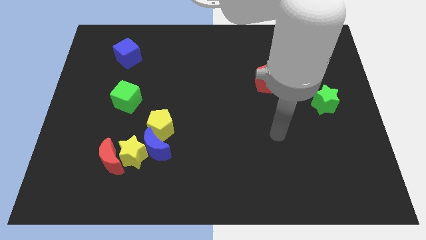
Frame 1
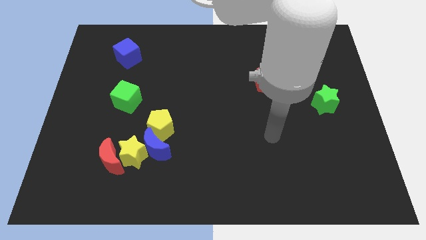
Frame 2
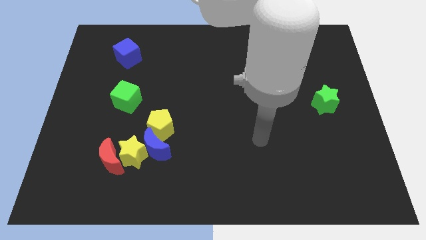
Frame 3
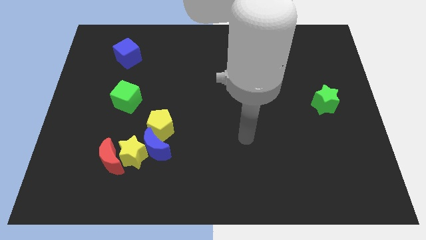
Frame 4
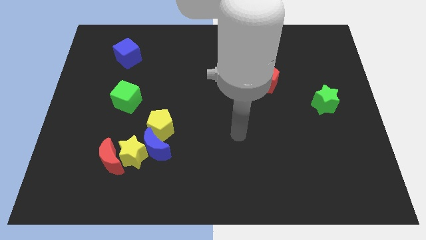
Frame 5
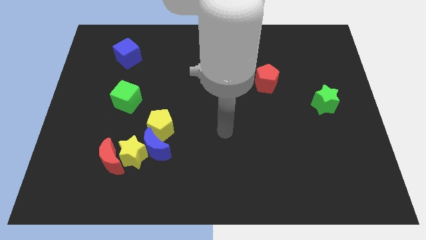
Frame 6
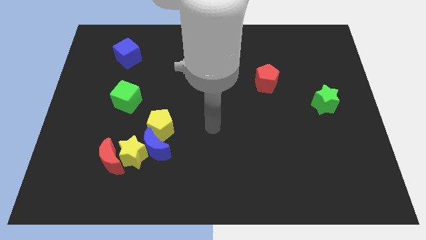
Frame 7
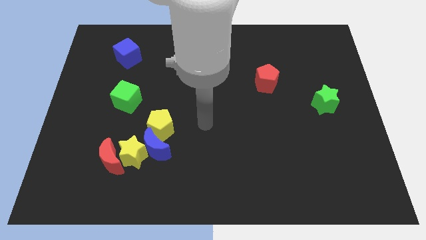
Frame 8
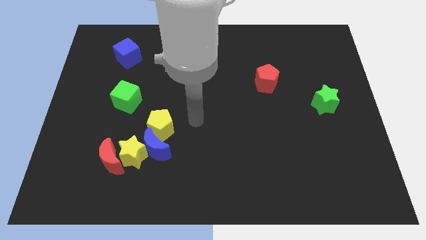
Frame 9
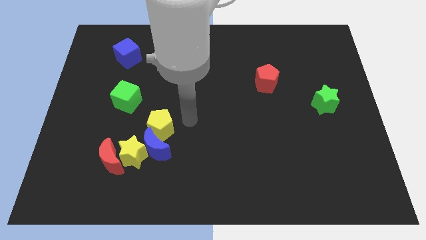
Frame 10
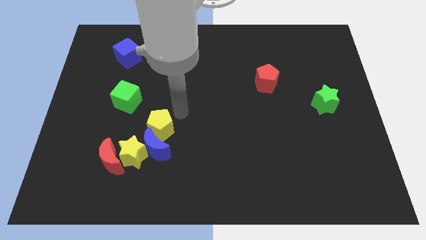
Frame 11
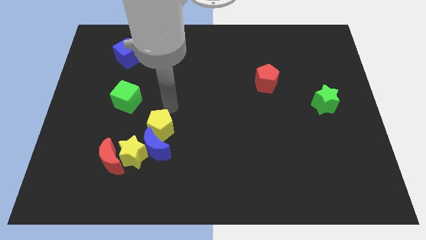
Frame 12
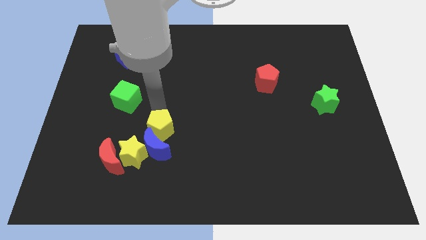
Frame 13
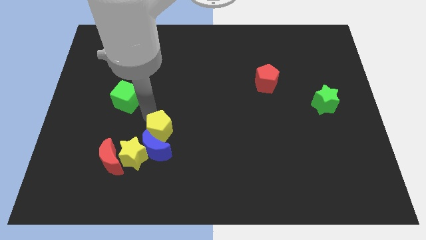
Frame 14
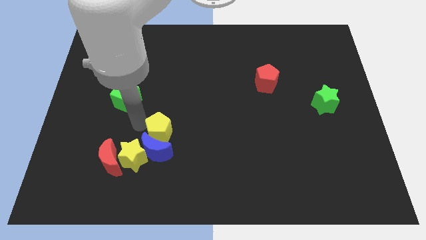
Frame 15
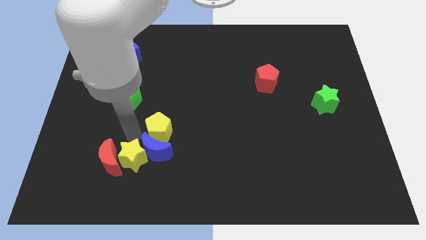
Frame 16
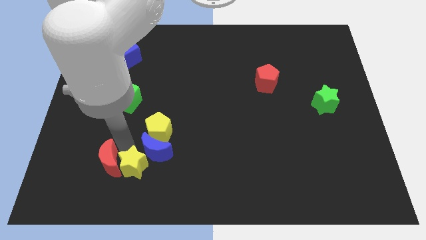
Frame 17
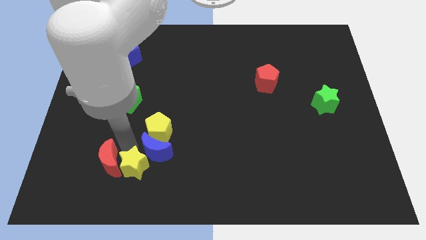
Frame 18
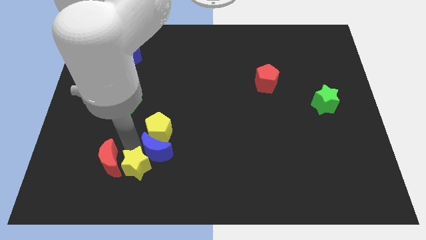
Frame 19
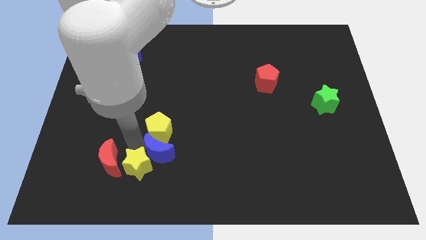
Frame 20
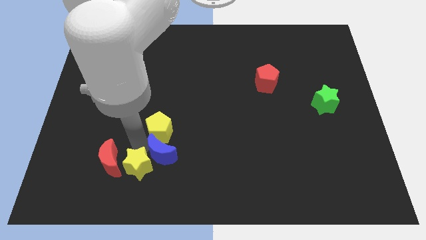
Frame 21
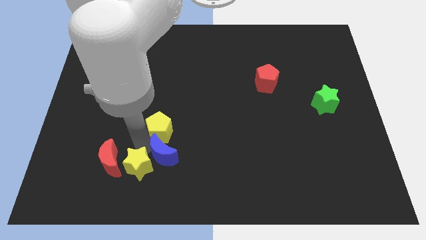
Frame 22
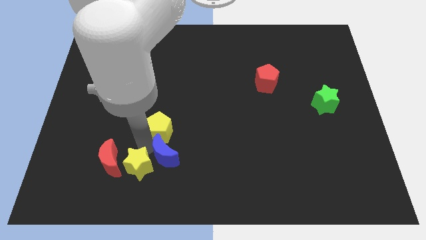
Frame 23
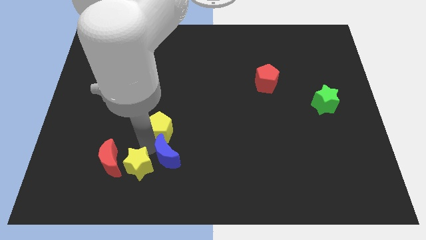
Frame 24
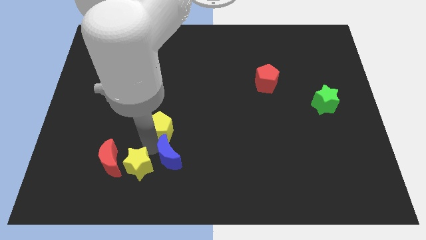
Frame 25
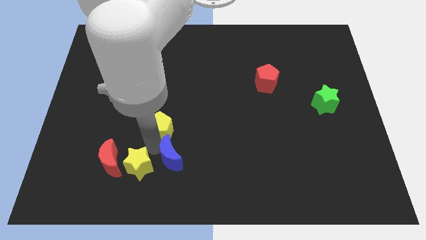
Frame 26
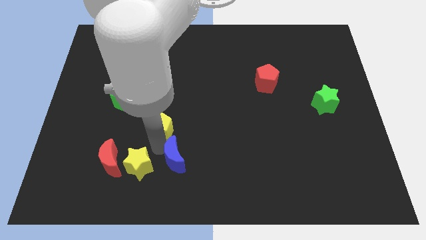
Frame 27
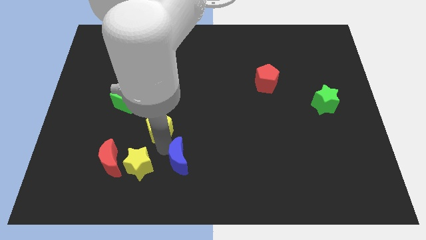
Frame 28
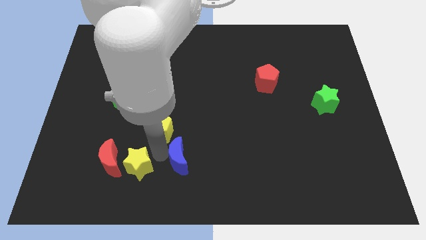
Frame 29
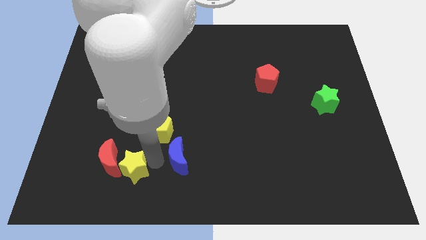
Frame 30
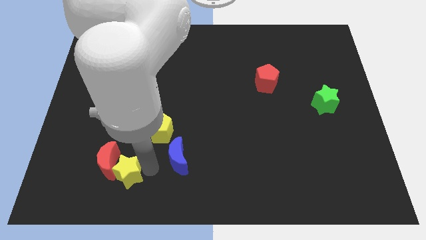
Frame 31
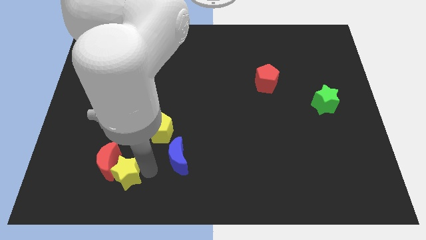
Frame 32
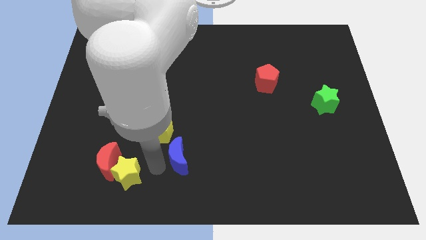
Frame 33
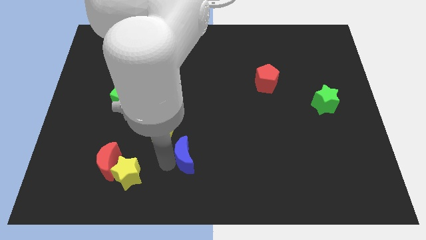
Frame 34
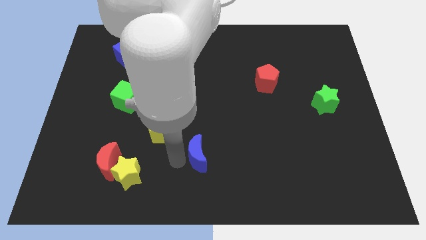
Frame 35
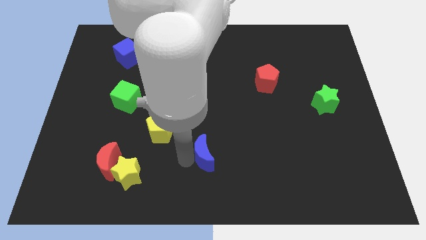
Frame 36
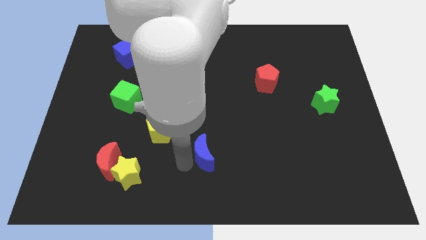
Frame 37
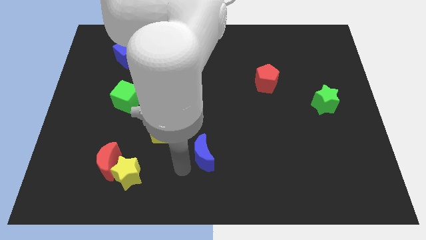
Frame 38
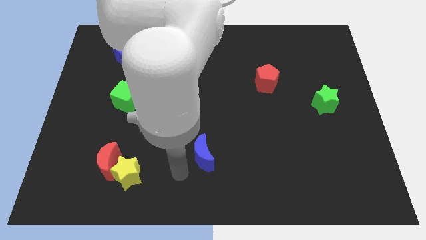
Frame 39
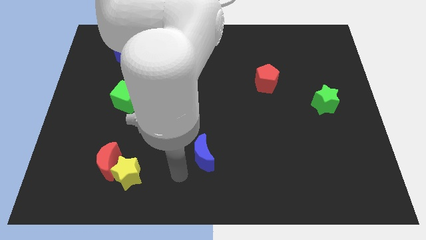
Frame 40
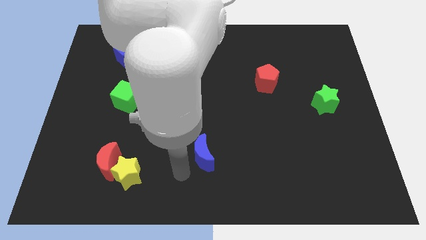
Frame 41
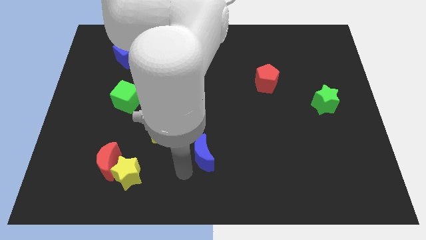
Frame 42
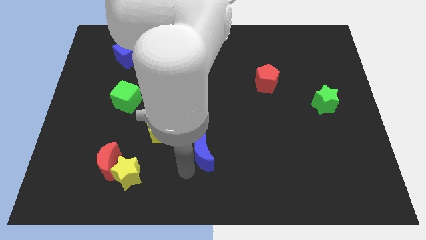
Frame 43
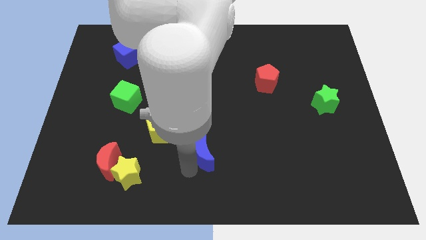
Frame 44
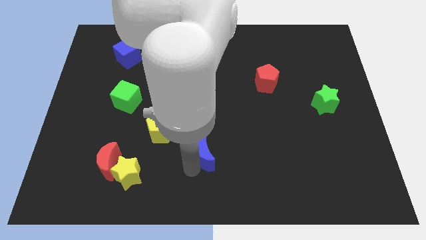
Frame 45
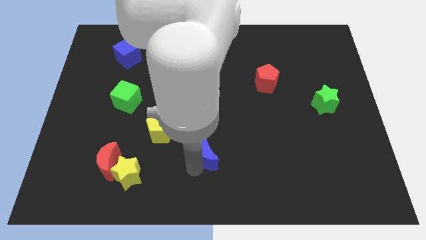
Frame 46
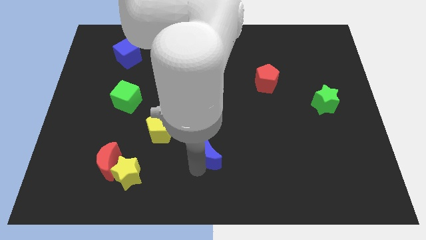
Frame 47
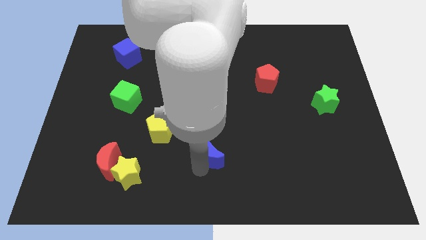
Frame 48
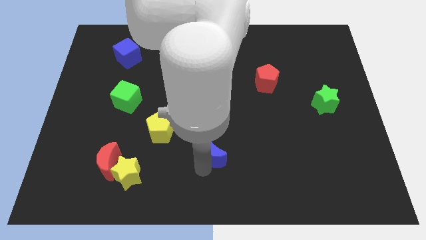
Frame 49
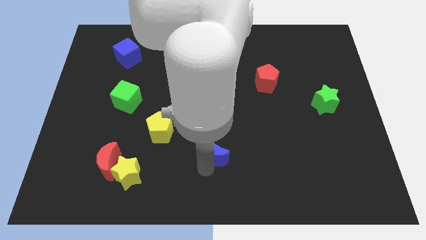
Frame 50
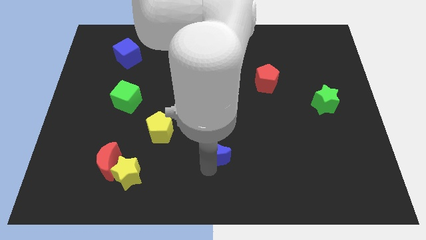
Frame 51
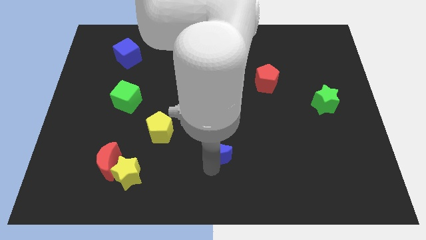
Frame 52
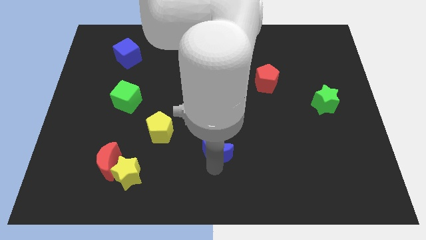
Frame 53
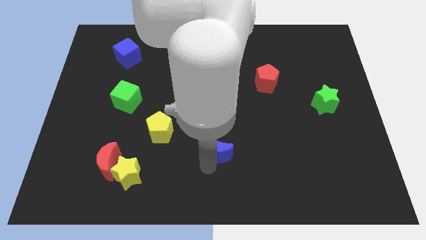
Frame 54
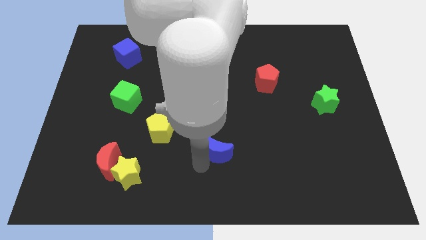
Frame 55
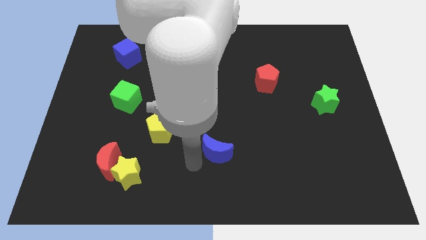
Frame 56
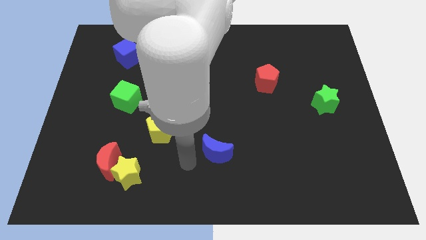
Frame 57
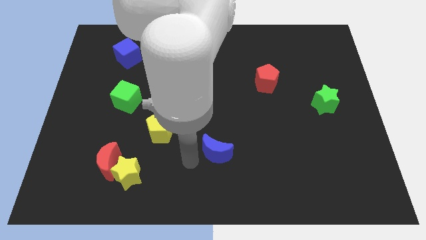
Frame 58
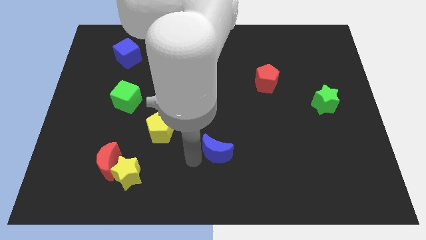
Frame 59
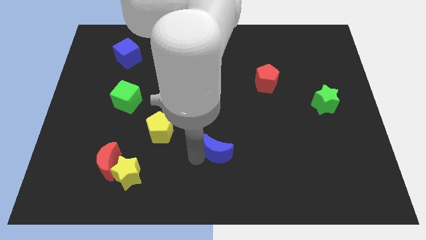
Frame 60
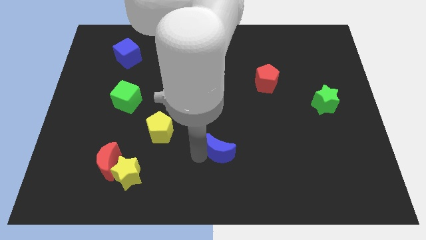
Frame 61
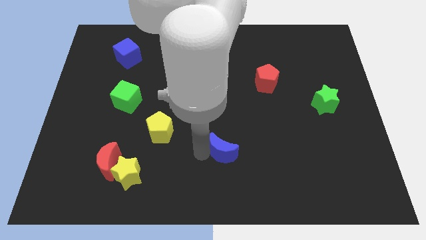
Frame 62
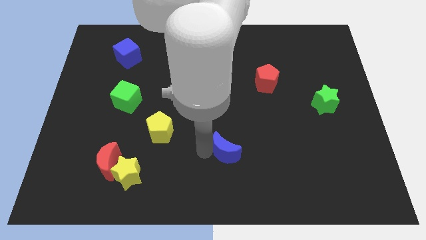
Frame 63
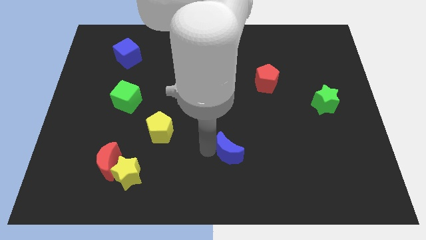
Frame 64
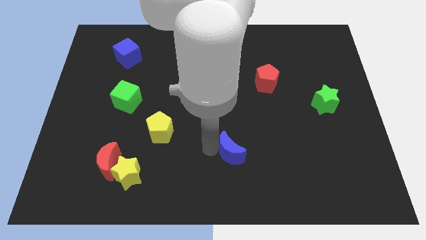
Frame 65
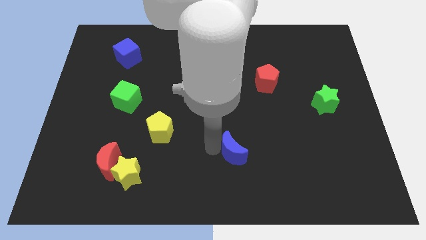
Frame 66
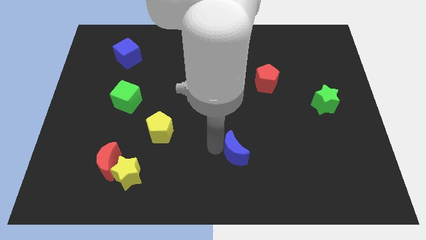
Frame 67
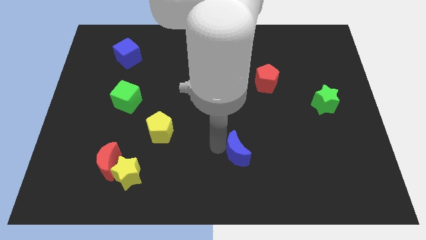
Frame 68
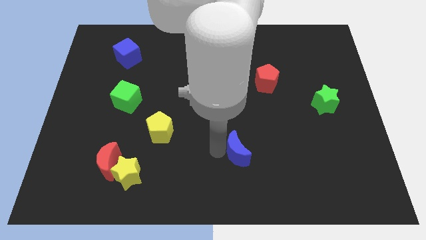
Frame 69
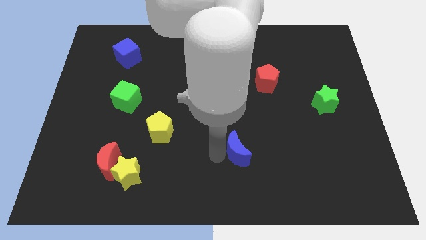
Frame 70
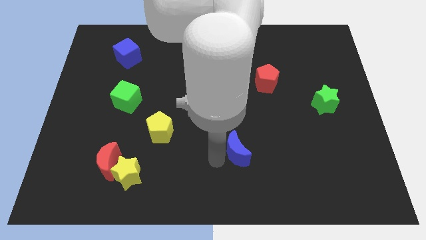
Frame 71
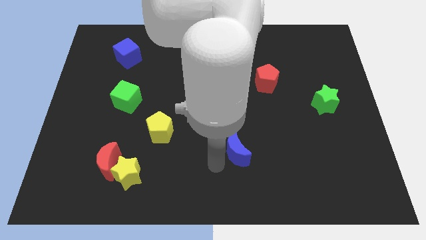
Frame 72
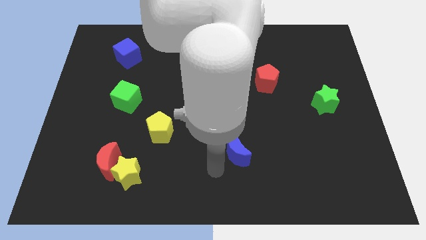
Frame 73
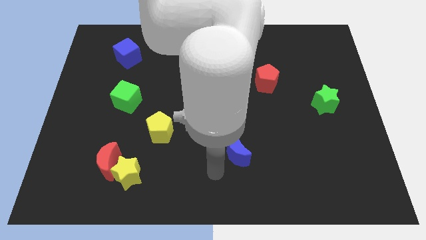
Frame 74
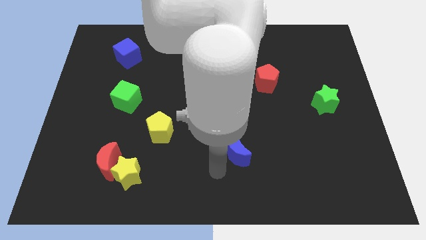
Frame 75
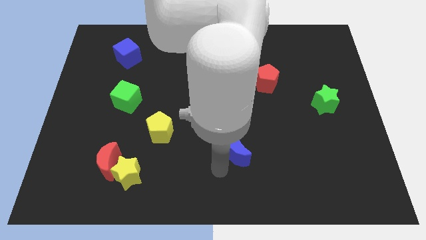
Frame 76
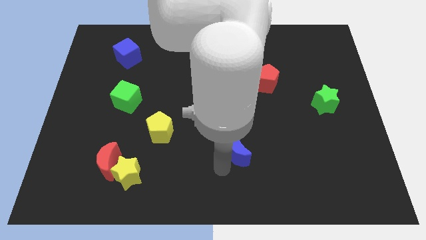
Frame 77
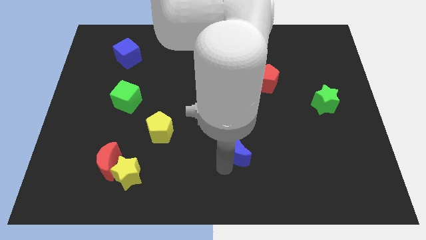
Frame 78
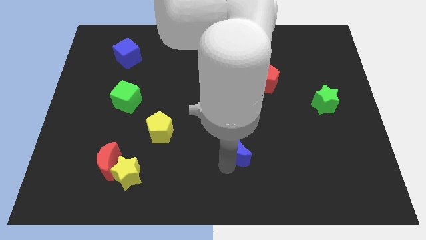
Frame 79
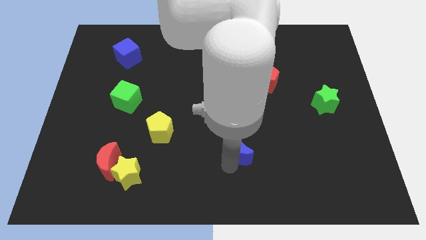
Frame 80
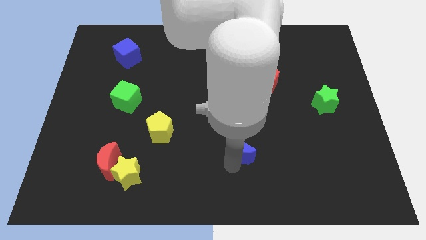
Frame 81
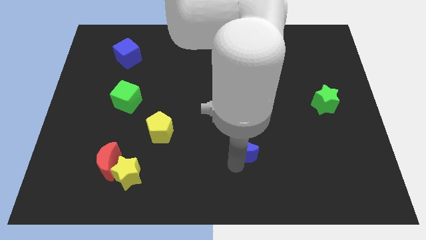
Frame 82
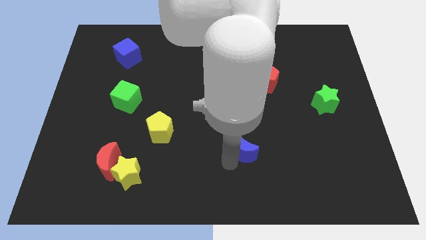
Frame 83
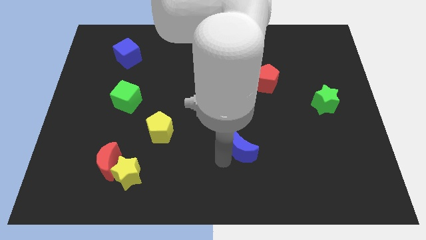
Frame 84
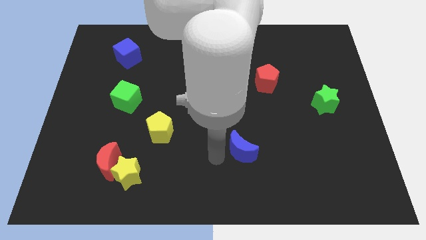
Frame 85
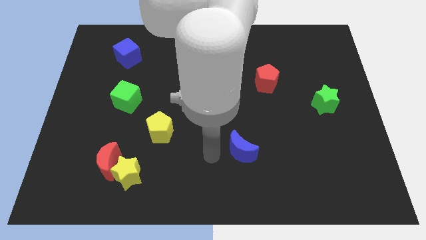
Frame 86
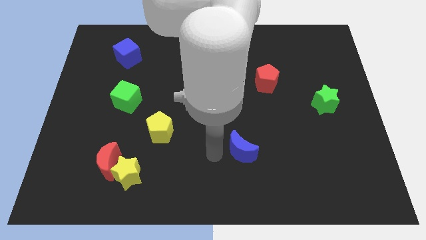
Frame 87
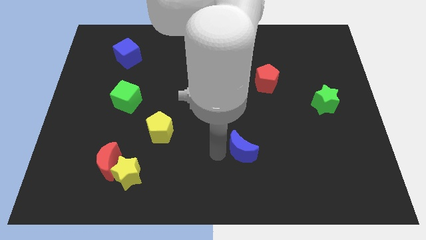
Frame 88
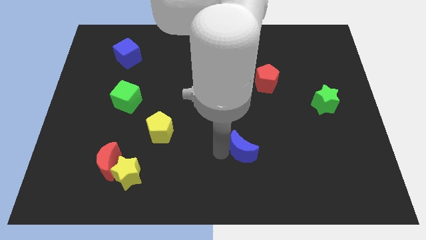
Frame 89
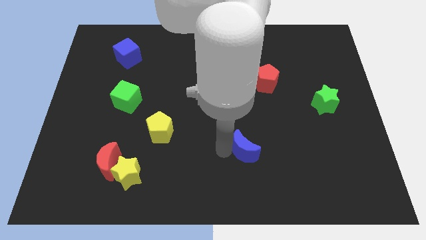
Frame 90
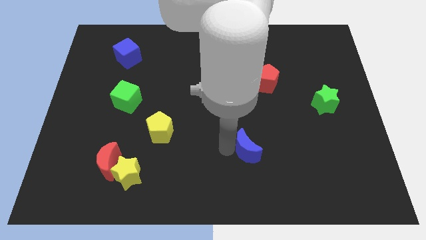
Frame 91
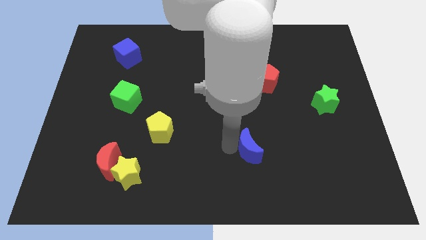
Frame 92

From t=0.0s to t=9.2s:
move the blue moon right
